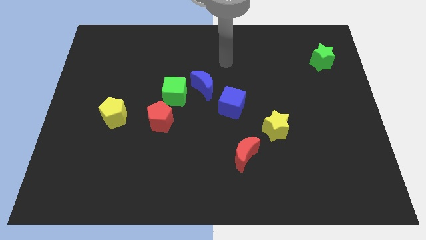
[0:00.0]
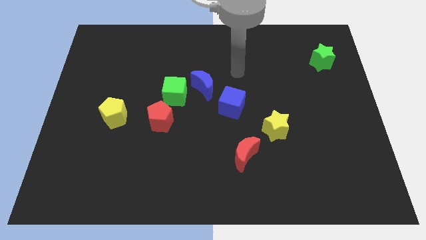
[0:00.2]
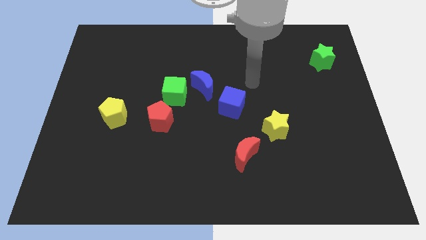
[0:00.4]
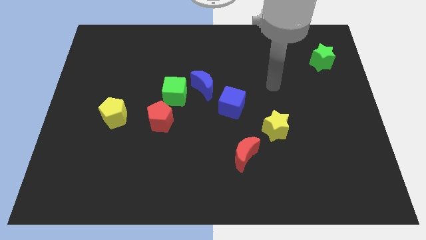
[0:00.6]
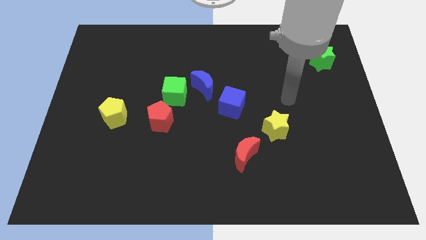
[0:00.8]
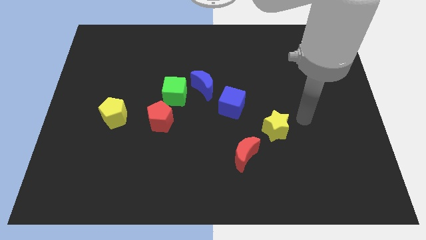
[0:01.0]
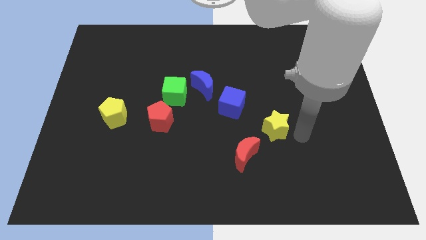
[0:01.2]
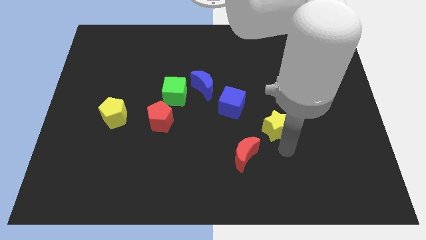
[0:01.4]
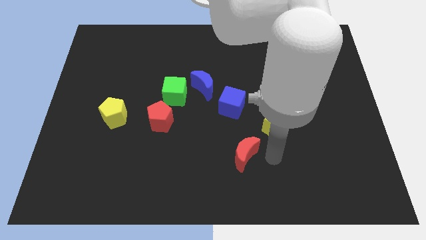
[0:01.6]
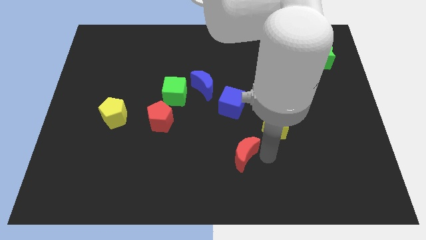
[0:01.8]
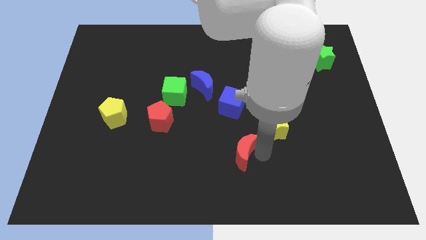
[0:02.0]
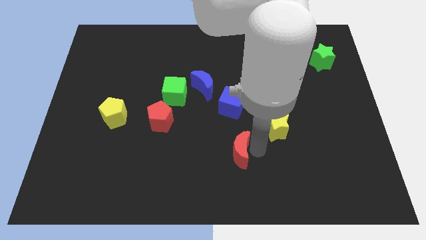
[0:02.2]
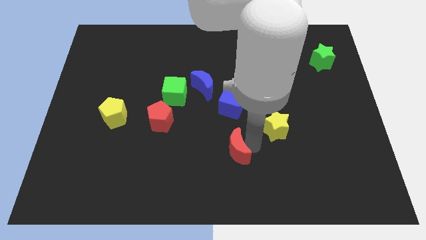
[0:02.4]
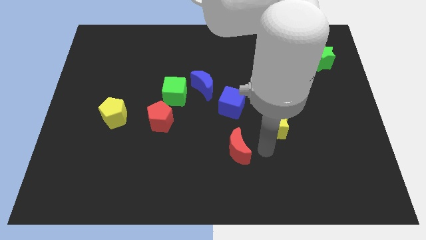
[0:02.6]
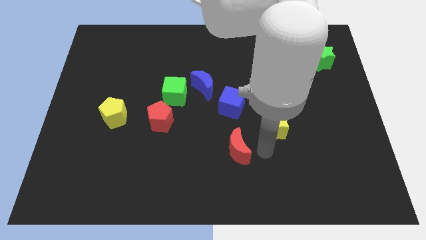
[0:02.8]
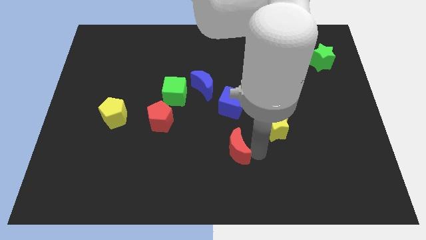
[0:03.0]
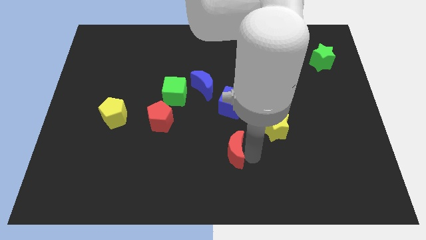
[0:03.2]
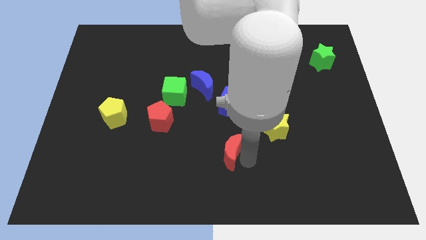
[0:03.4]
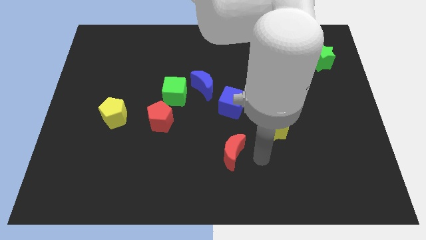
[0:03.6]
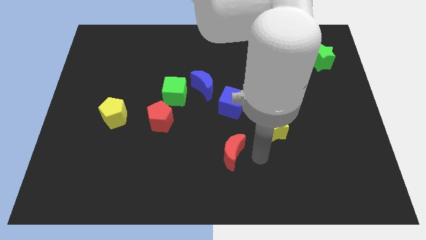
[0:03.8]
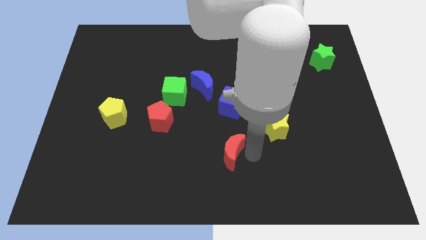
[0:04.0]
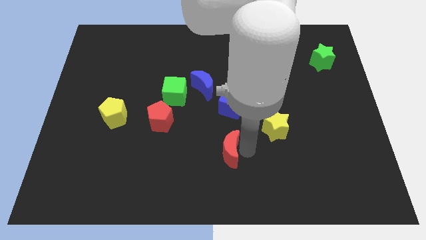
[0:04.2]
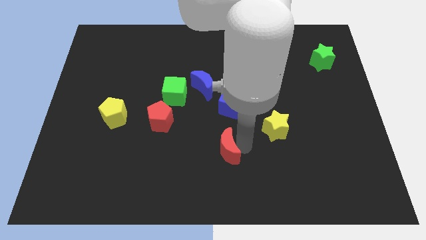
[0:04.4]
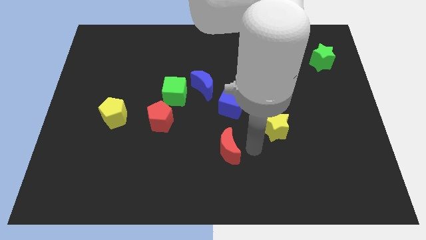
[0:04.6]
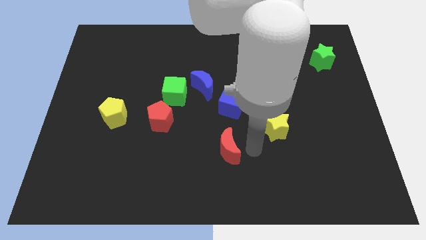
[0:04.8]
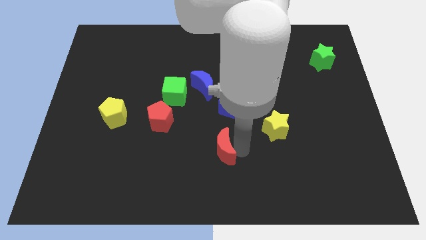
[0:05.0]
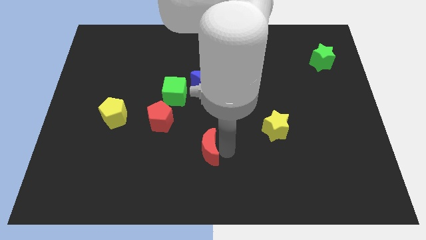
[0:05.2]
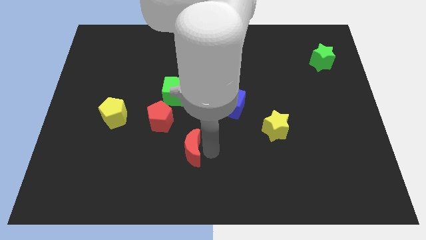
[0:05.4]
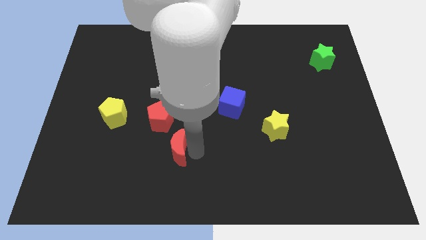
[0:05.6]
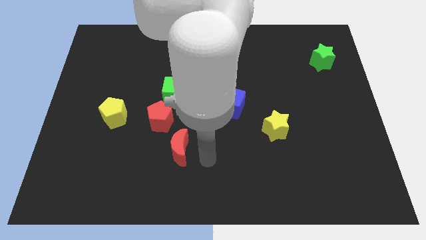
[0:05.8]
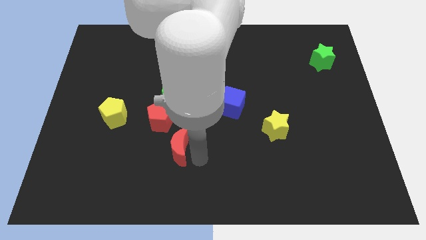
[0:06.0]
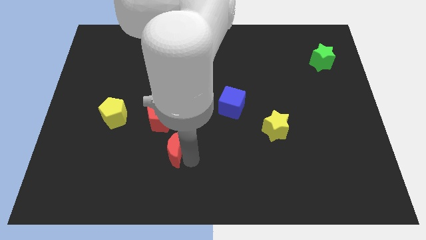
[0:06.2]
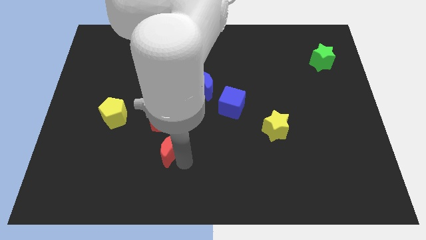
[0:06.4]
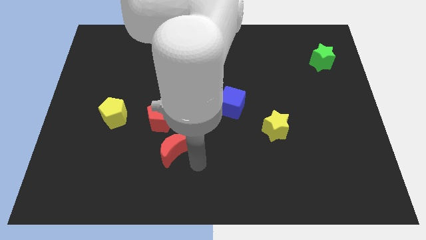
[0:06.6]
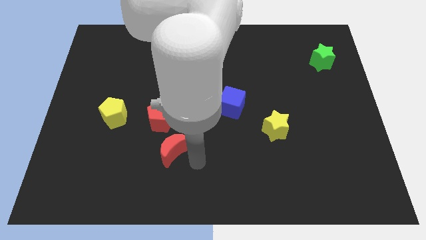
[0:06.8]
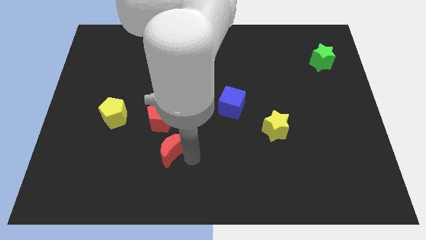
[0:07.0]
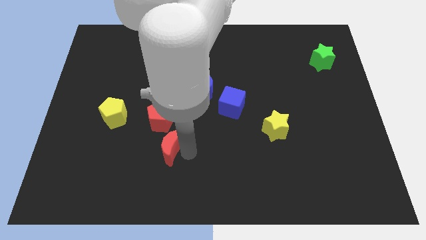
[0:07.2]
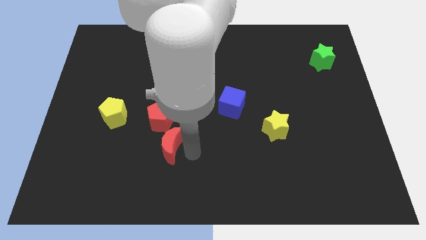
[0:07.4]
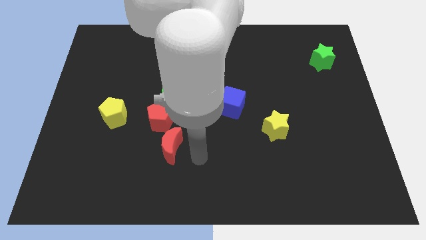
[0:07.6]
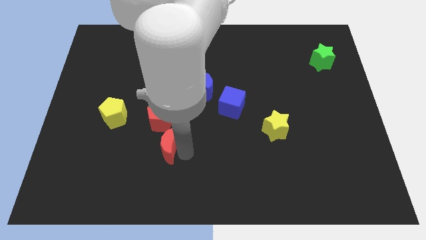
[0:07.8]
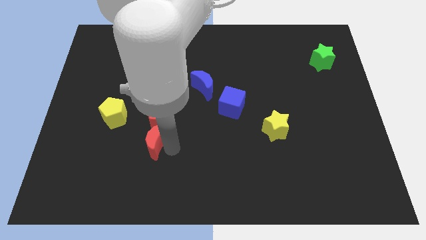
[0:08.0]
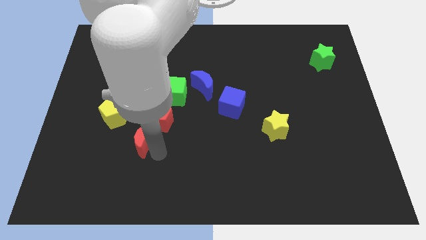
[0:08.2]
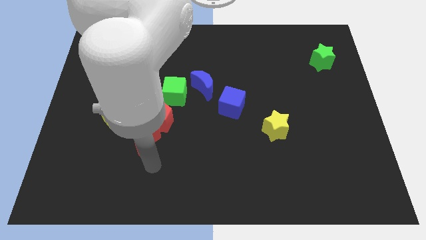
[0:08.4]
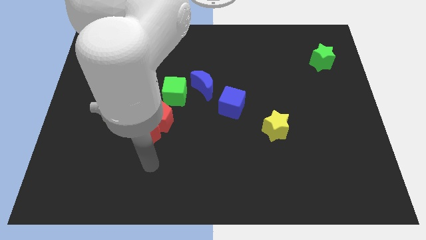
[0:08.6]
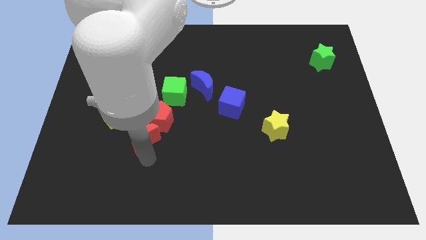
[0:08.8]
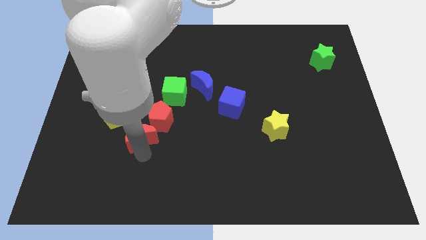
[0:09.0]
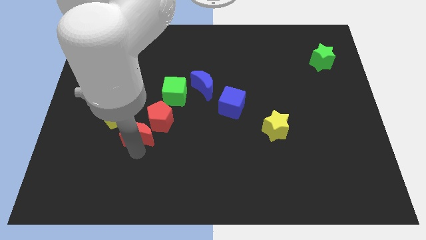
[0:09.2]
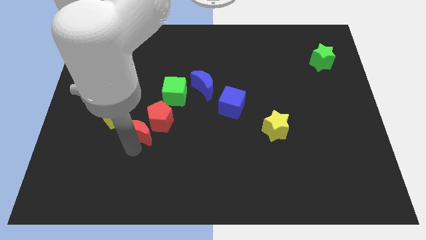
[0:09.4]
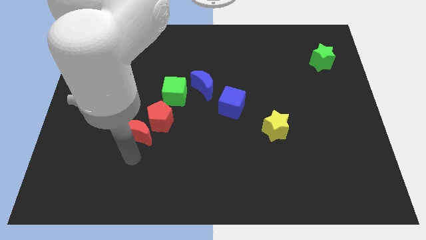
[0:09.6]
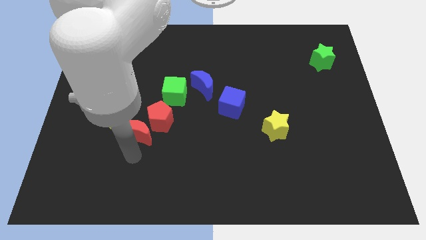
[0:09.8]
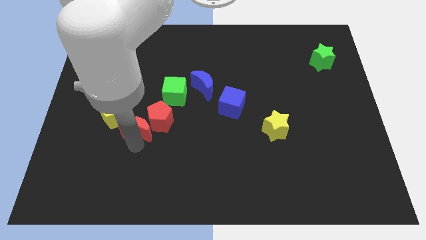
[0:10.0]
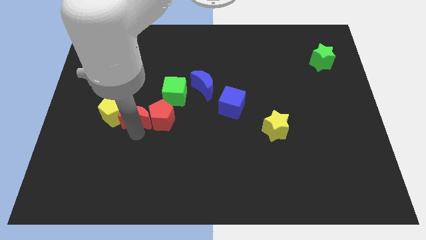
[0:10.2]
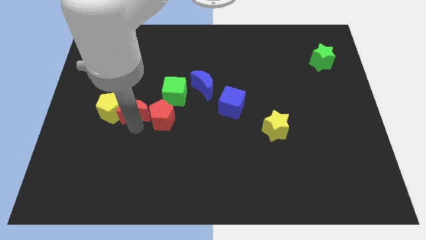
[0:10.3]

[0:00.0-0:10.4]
push the red moon diagonally upwards and left

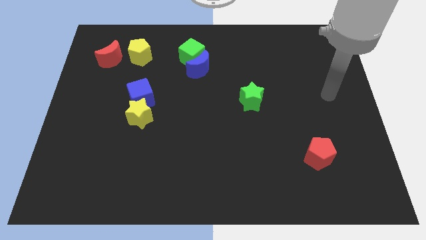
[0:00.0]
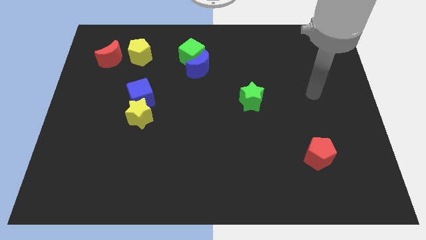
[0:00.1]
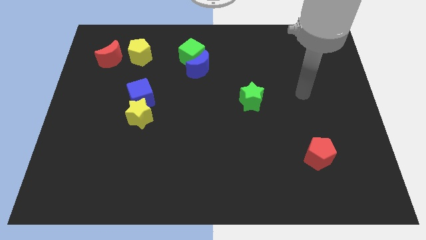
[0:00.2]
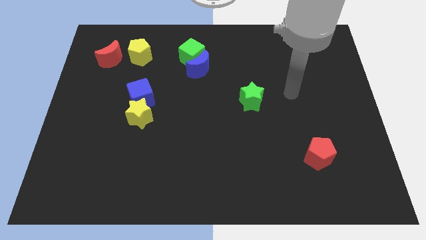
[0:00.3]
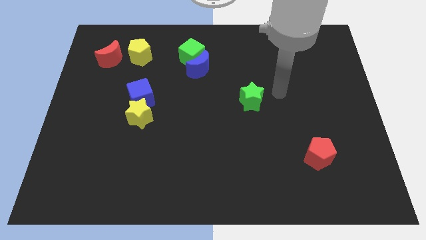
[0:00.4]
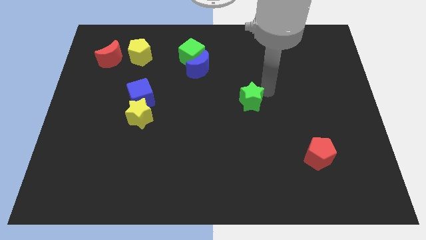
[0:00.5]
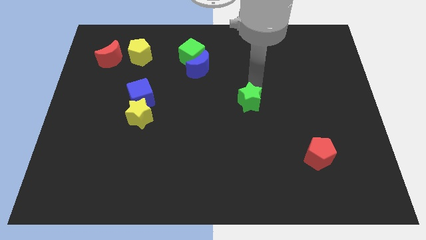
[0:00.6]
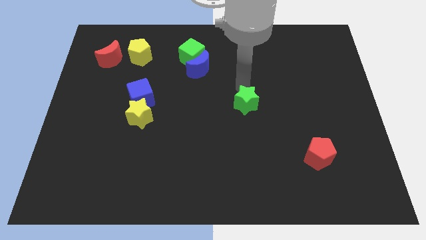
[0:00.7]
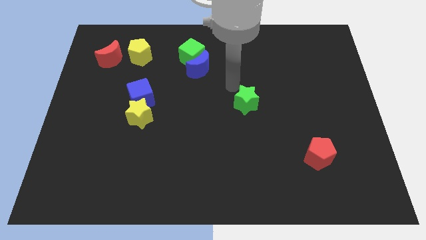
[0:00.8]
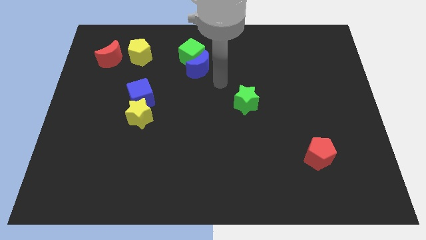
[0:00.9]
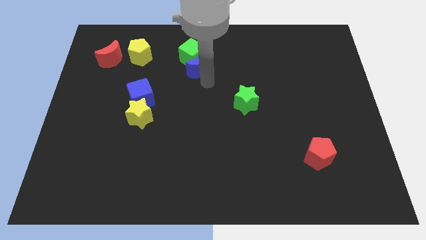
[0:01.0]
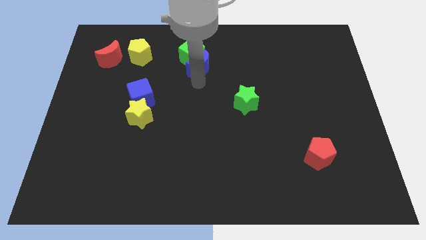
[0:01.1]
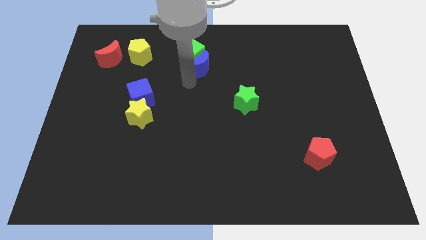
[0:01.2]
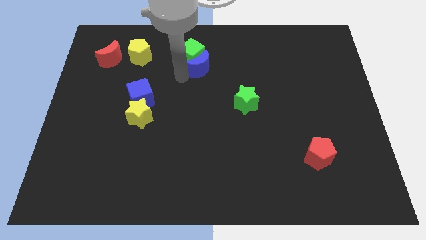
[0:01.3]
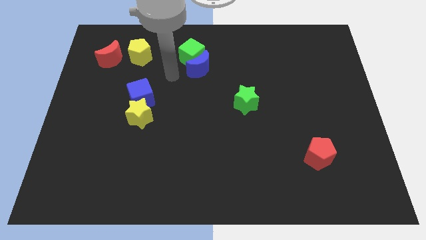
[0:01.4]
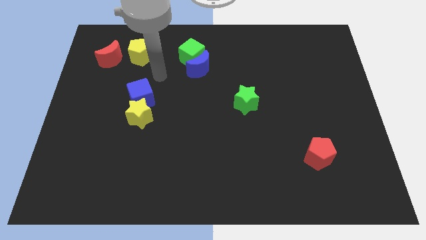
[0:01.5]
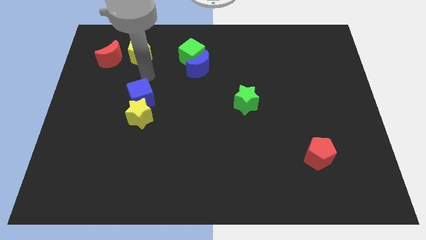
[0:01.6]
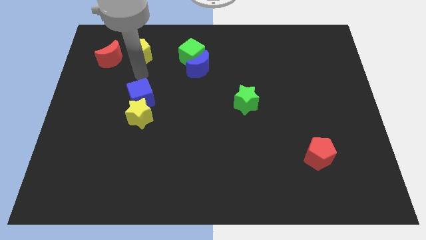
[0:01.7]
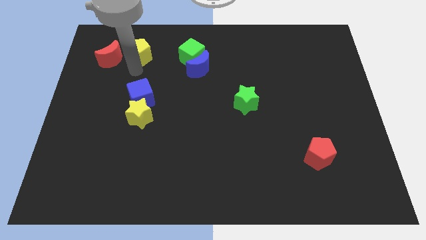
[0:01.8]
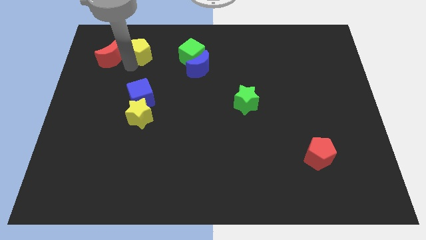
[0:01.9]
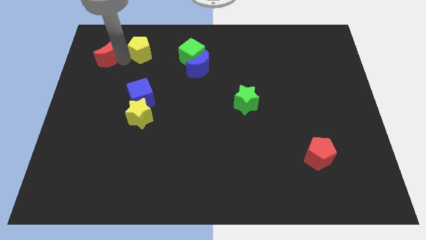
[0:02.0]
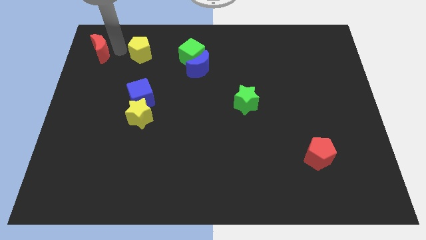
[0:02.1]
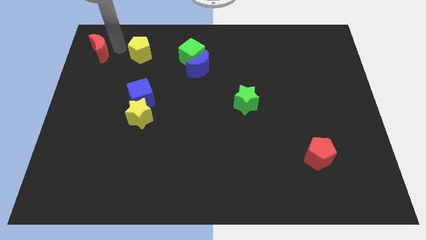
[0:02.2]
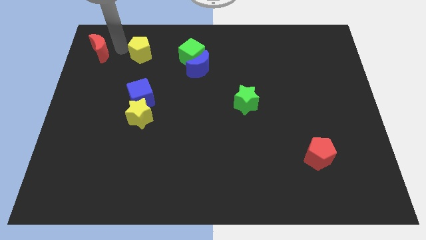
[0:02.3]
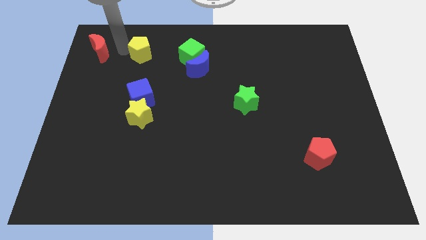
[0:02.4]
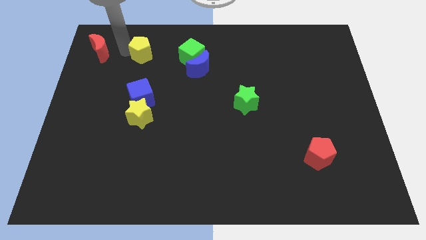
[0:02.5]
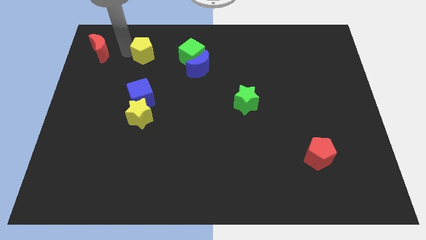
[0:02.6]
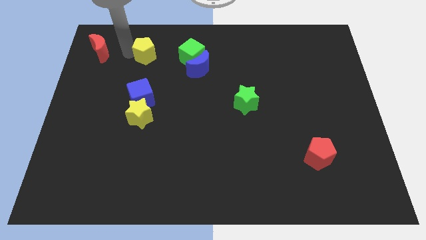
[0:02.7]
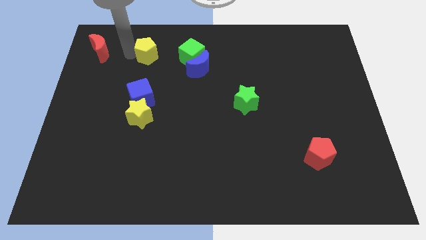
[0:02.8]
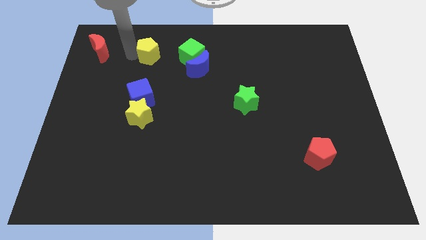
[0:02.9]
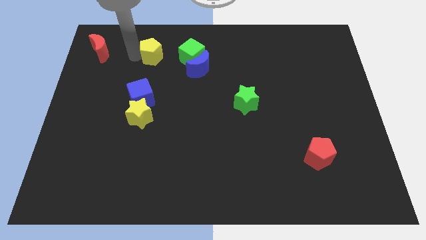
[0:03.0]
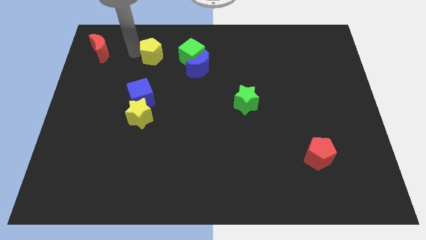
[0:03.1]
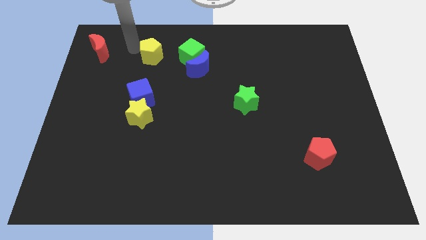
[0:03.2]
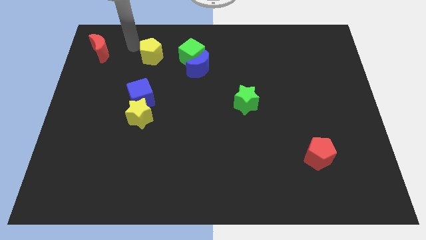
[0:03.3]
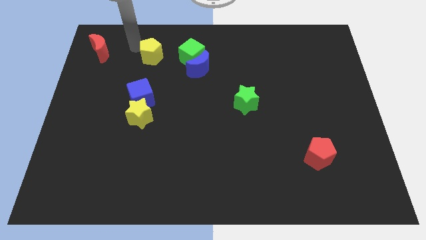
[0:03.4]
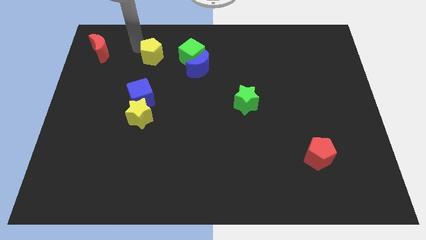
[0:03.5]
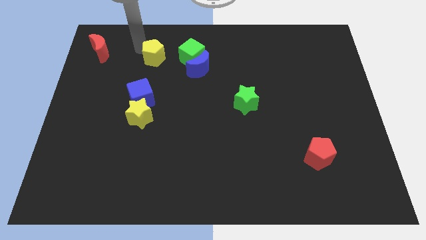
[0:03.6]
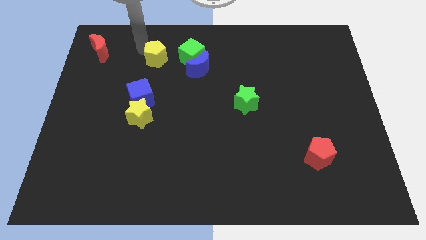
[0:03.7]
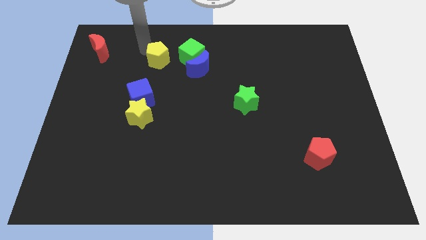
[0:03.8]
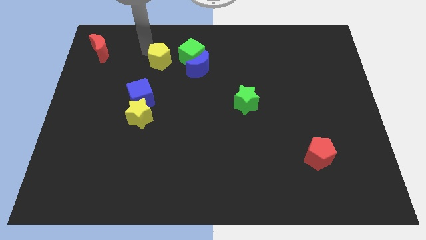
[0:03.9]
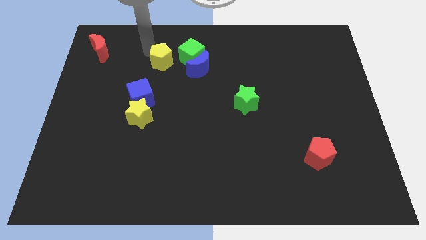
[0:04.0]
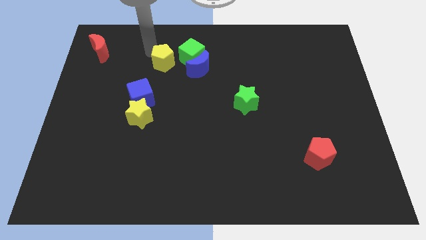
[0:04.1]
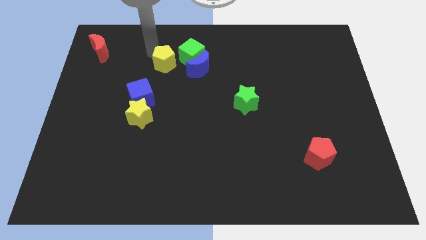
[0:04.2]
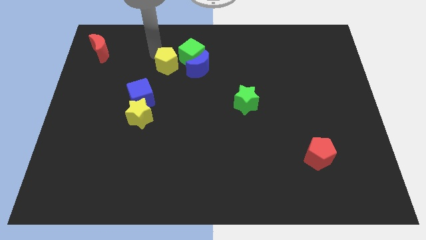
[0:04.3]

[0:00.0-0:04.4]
push the yellow pentagon slightly downwards and right diagonally
